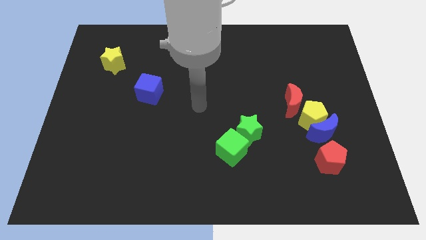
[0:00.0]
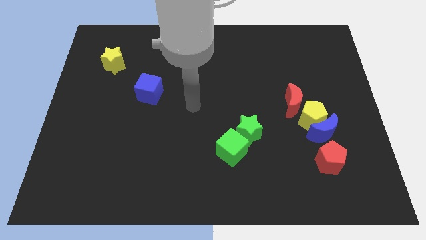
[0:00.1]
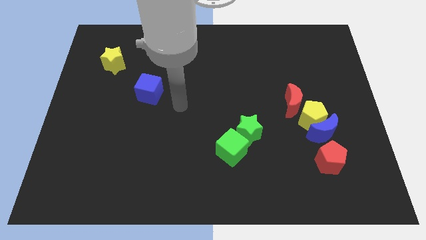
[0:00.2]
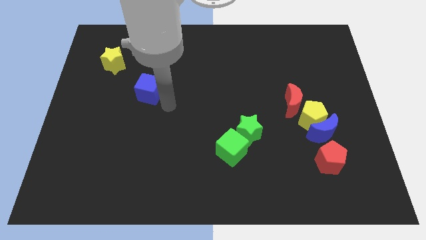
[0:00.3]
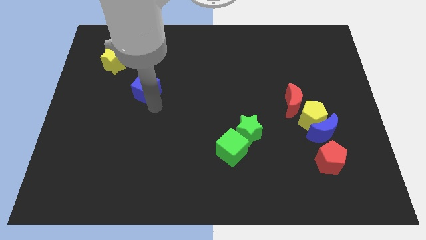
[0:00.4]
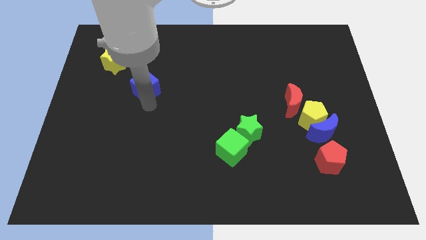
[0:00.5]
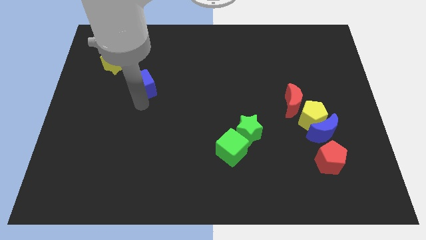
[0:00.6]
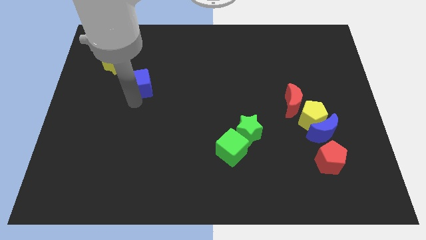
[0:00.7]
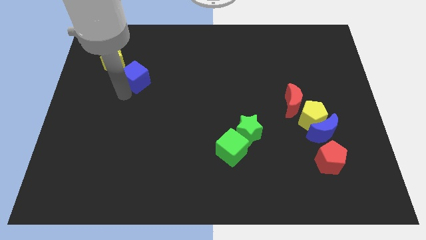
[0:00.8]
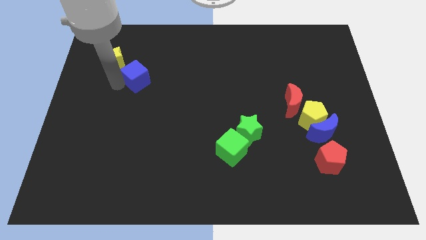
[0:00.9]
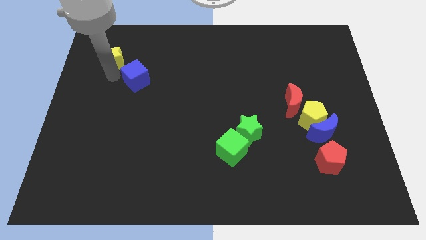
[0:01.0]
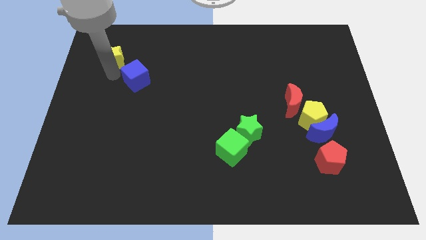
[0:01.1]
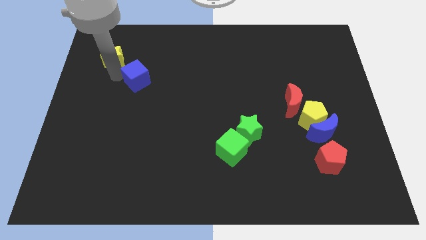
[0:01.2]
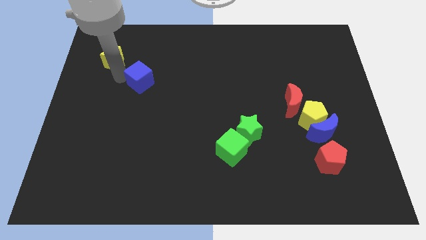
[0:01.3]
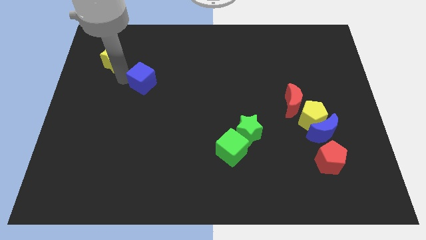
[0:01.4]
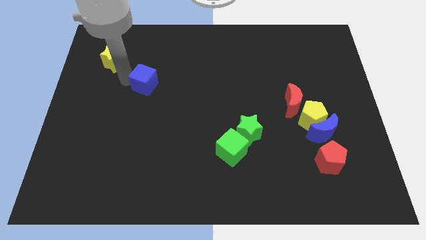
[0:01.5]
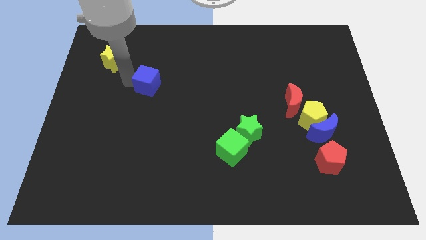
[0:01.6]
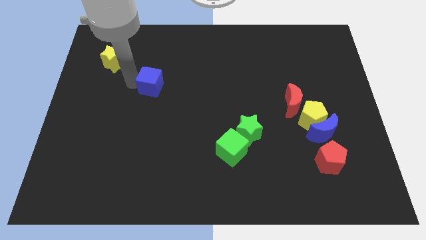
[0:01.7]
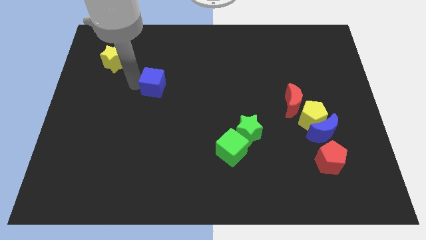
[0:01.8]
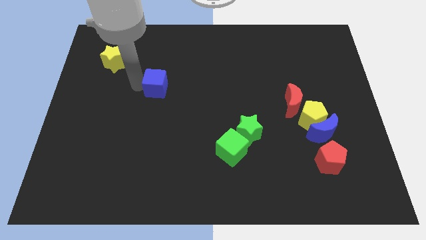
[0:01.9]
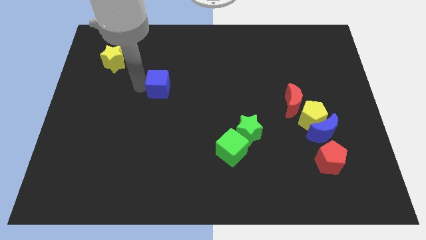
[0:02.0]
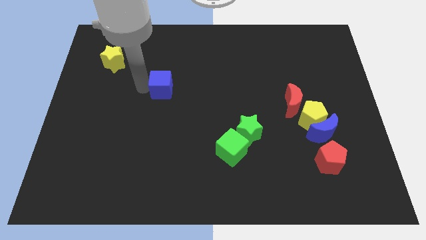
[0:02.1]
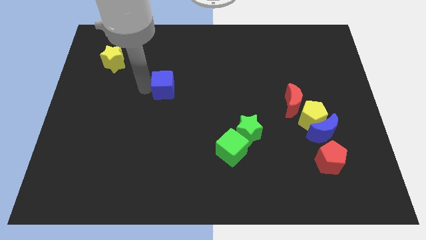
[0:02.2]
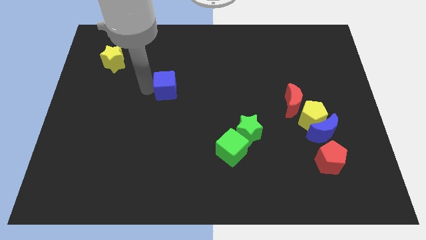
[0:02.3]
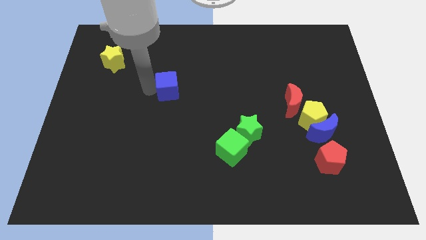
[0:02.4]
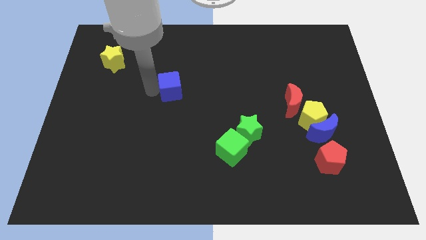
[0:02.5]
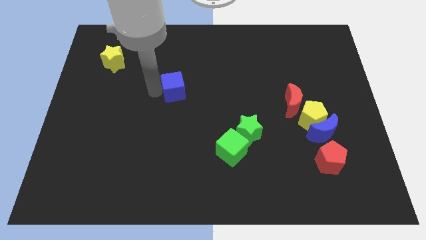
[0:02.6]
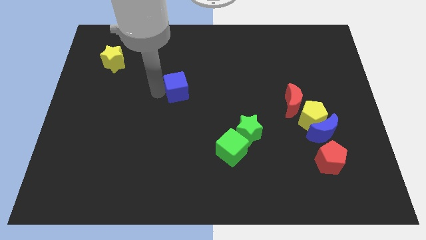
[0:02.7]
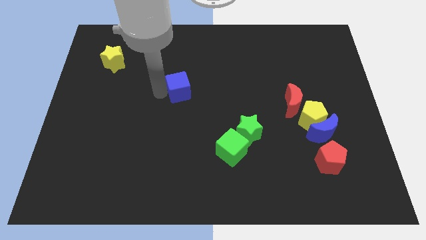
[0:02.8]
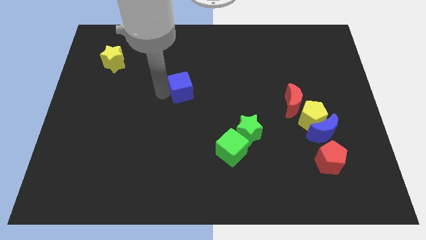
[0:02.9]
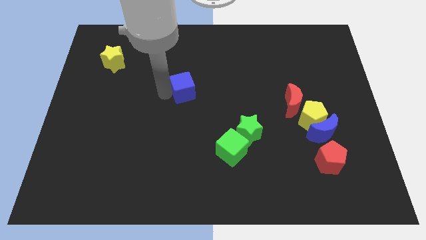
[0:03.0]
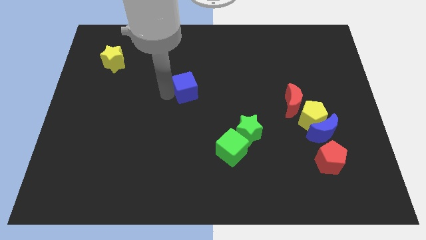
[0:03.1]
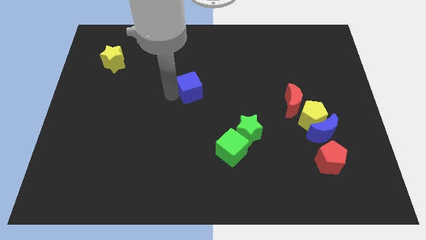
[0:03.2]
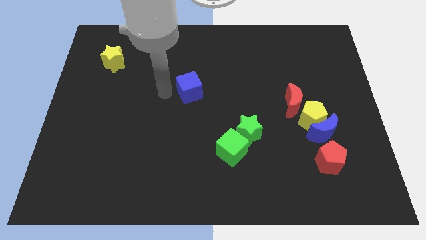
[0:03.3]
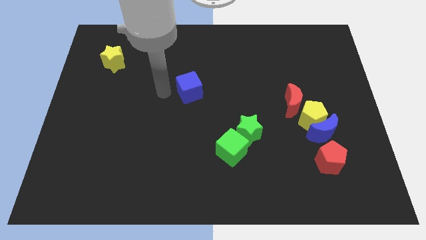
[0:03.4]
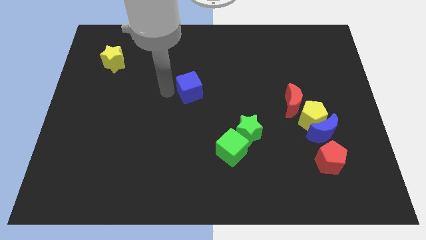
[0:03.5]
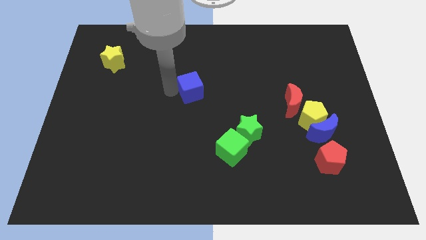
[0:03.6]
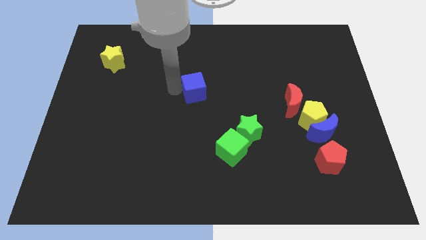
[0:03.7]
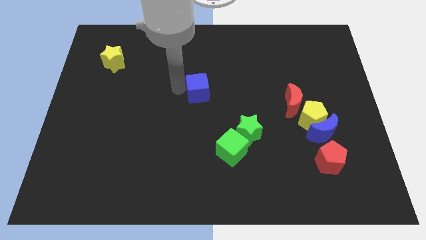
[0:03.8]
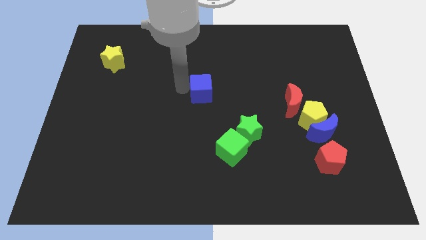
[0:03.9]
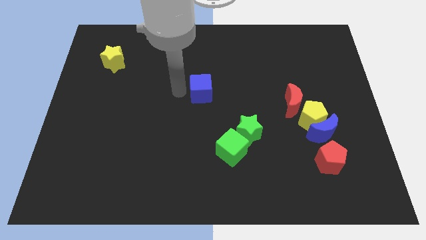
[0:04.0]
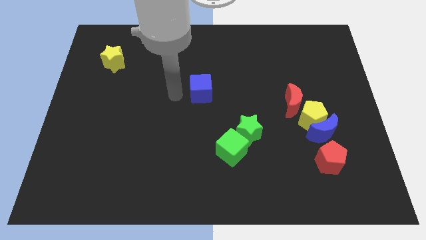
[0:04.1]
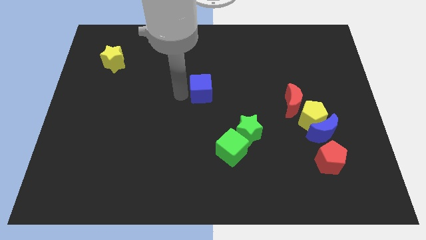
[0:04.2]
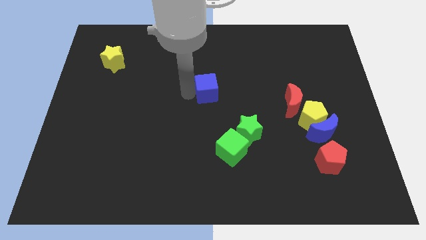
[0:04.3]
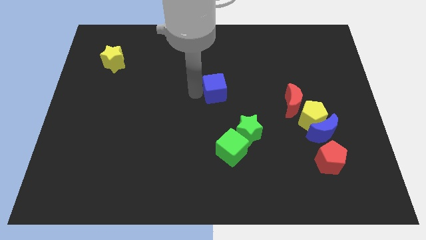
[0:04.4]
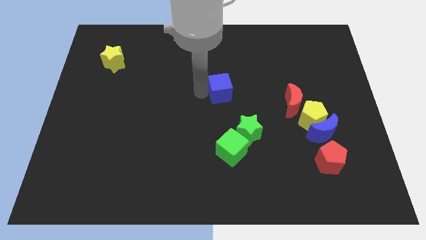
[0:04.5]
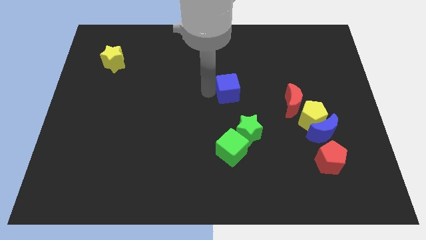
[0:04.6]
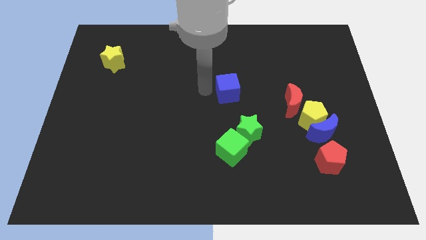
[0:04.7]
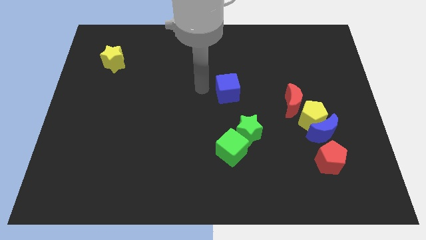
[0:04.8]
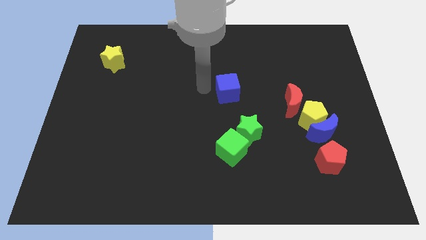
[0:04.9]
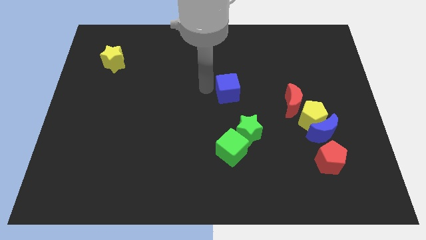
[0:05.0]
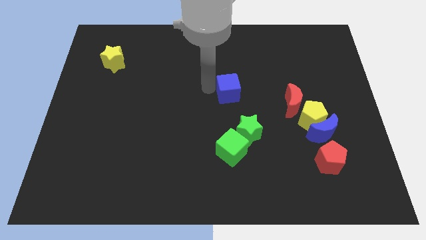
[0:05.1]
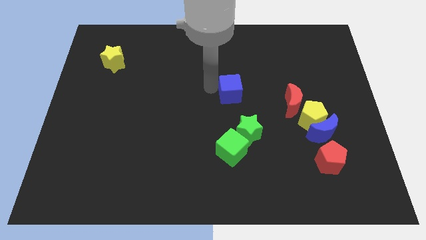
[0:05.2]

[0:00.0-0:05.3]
push the blue cube to the right

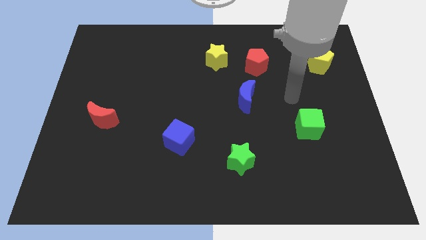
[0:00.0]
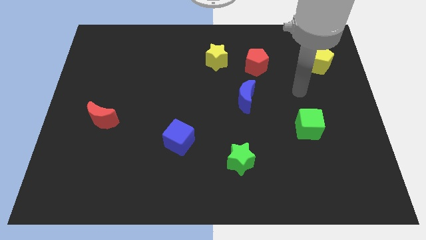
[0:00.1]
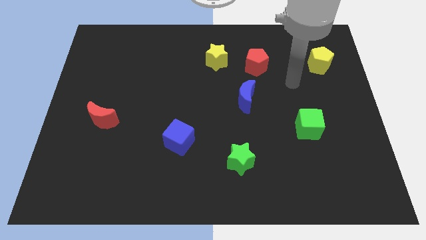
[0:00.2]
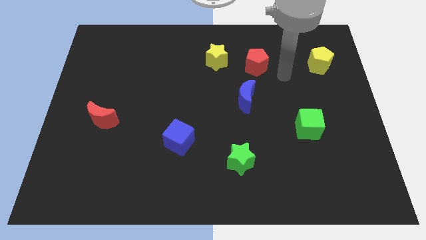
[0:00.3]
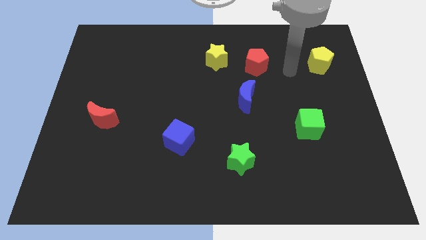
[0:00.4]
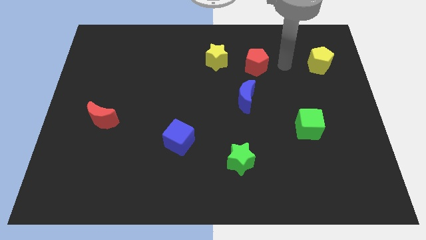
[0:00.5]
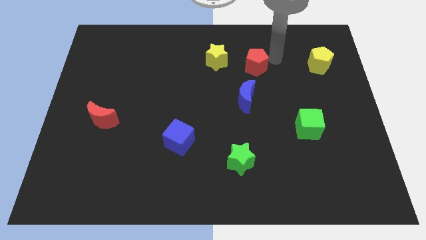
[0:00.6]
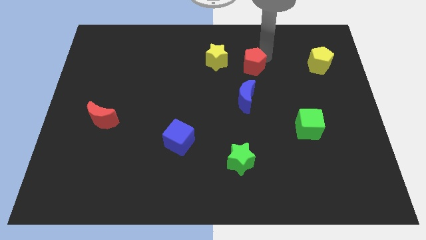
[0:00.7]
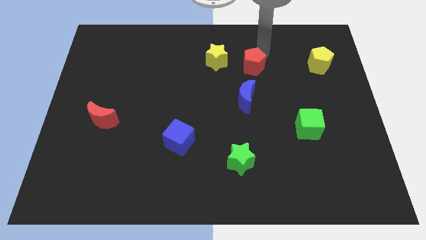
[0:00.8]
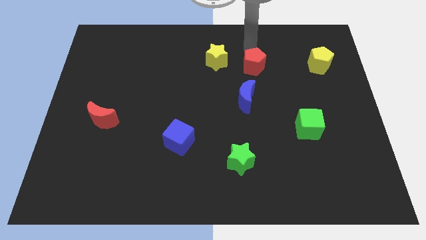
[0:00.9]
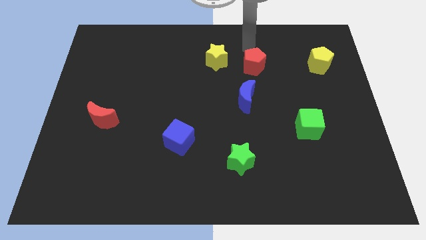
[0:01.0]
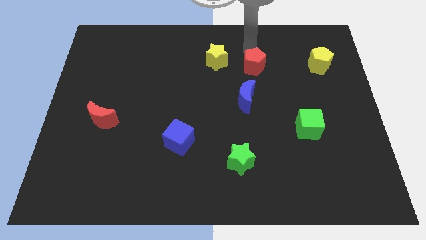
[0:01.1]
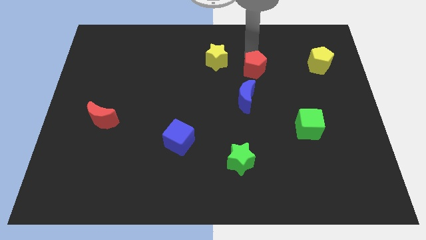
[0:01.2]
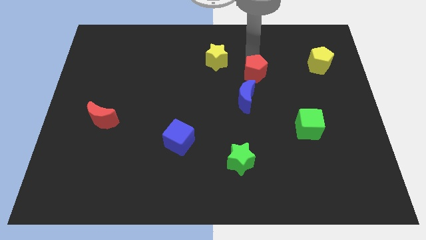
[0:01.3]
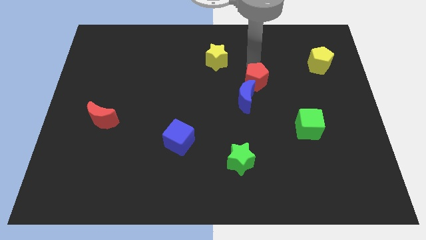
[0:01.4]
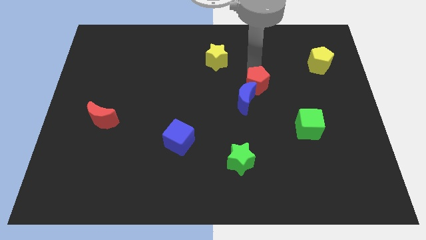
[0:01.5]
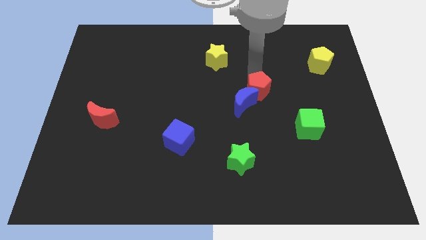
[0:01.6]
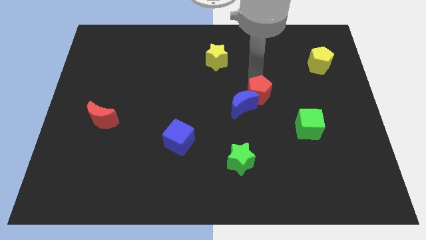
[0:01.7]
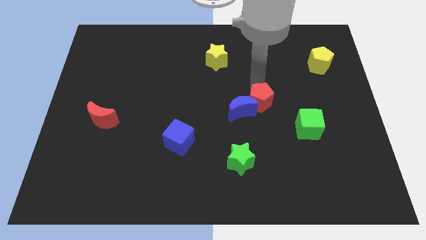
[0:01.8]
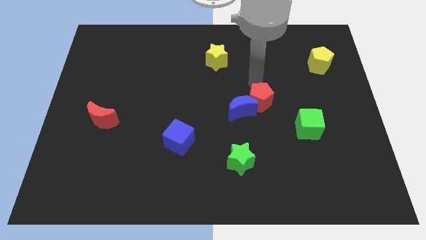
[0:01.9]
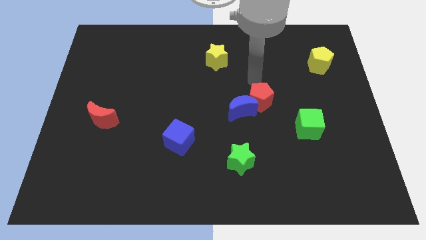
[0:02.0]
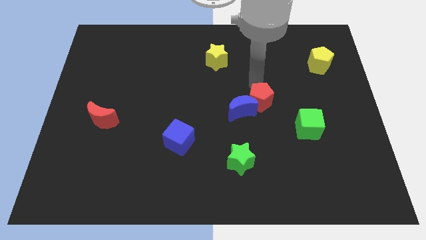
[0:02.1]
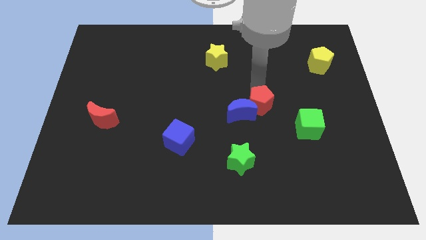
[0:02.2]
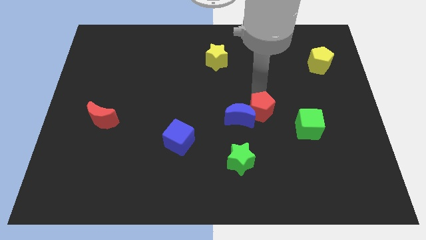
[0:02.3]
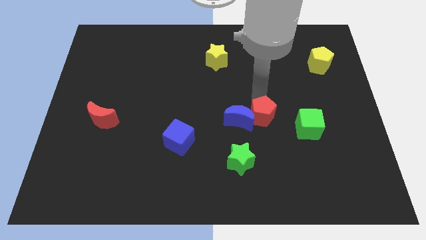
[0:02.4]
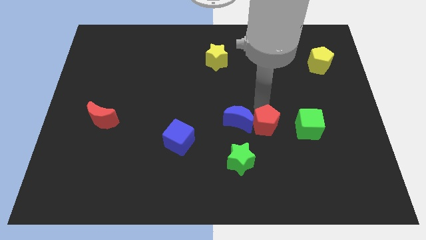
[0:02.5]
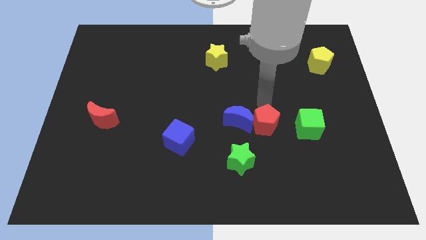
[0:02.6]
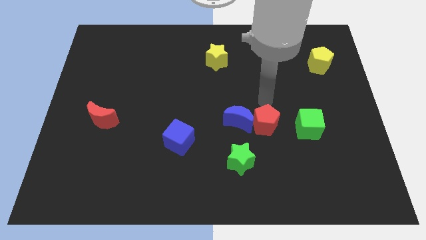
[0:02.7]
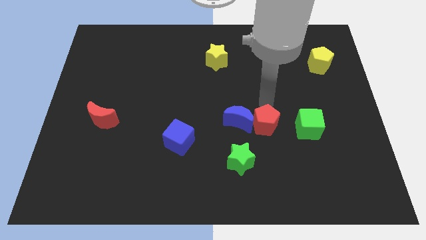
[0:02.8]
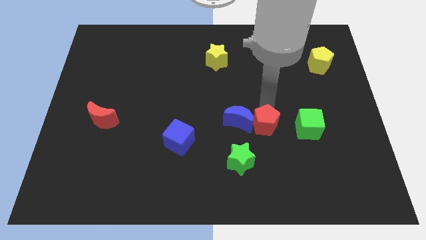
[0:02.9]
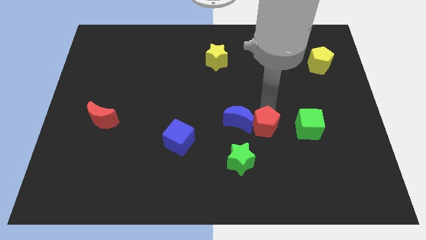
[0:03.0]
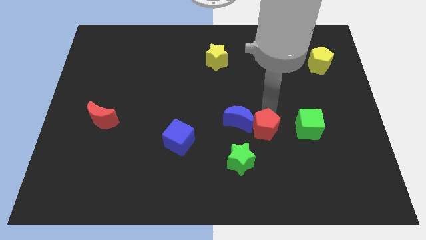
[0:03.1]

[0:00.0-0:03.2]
push the red pentagon down
